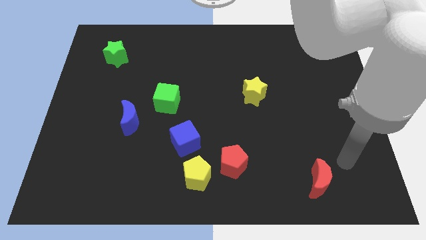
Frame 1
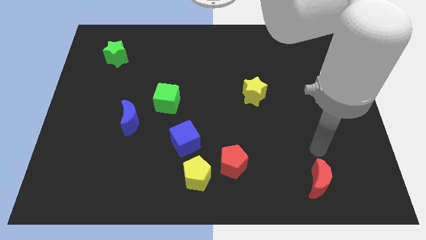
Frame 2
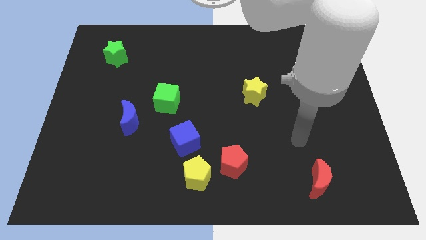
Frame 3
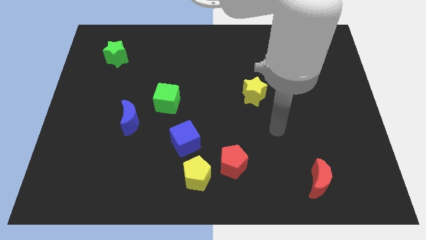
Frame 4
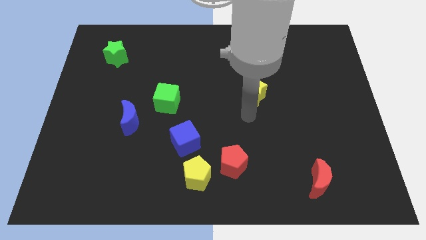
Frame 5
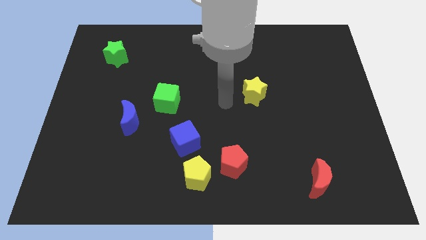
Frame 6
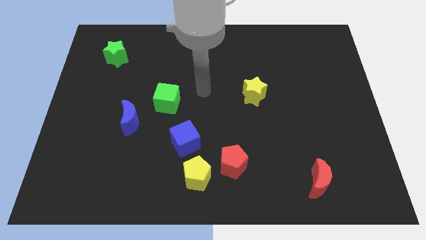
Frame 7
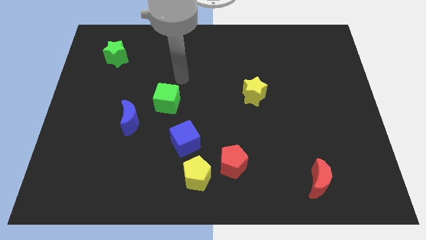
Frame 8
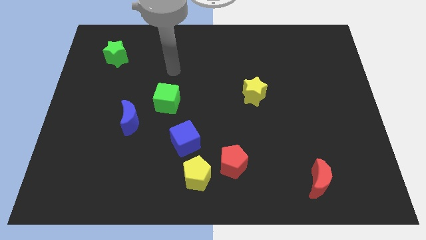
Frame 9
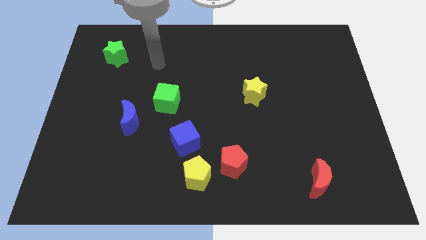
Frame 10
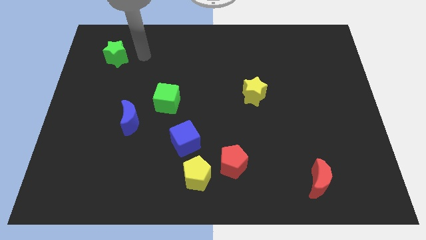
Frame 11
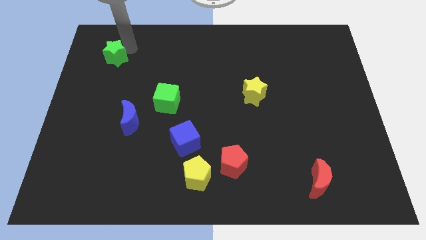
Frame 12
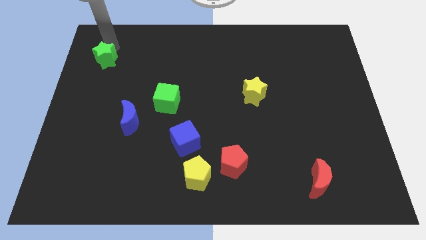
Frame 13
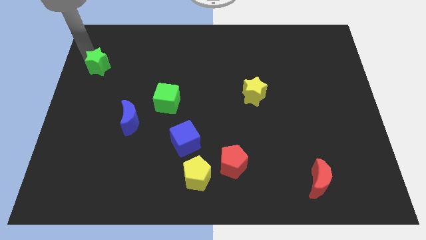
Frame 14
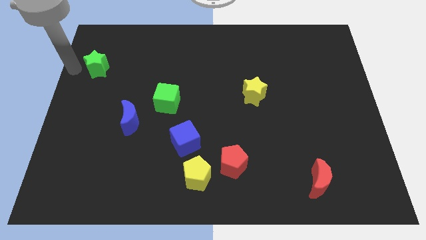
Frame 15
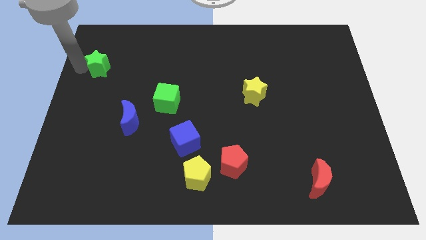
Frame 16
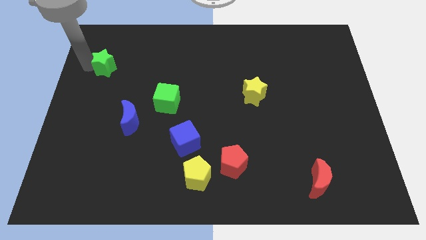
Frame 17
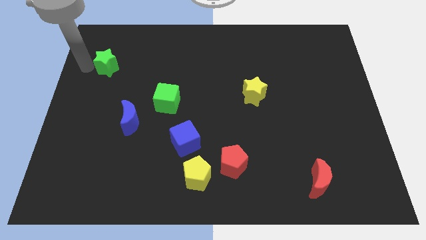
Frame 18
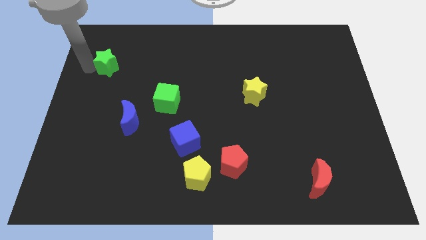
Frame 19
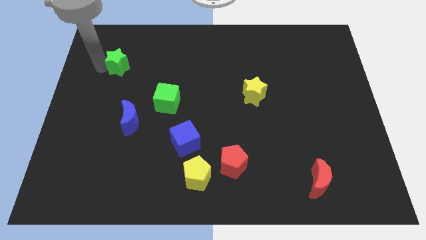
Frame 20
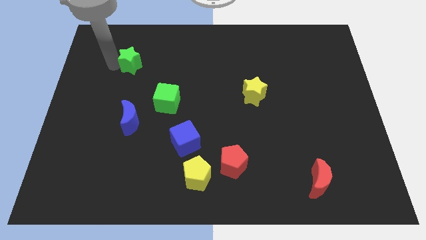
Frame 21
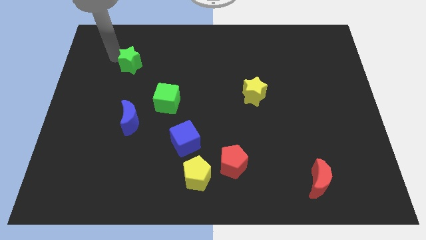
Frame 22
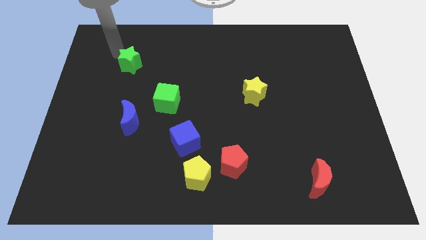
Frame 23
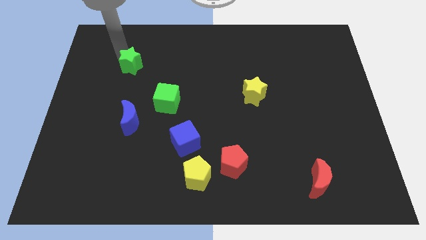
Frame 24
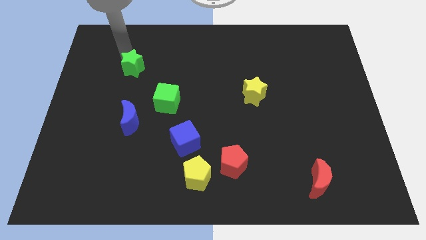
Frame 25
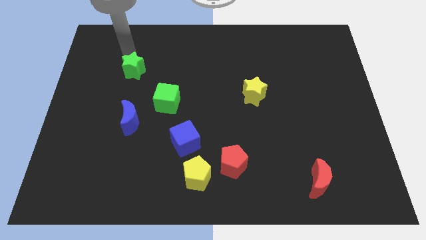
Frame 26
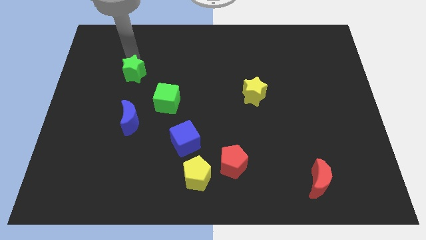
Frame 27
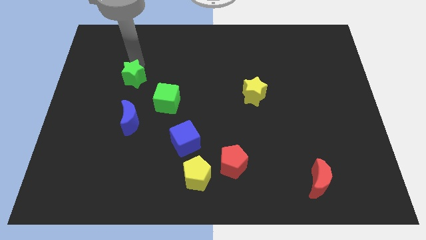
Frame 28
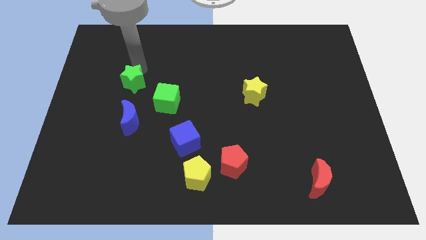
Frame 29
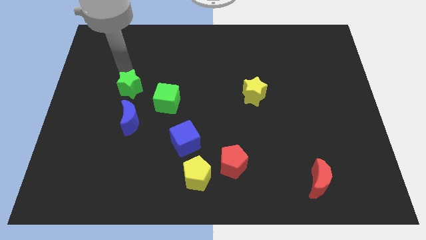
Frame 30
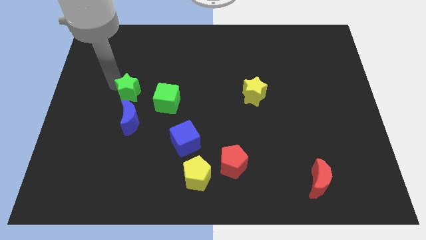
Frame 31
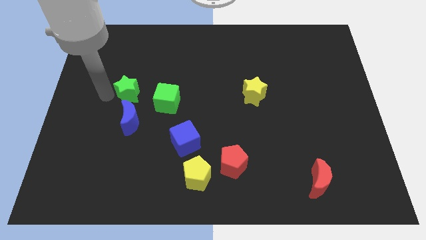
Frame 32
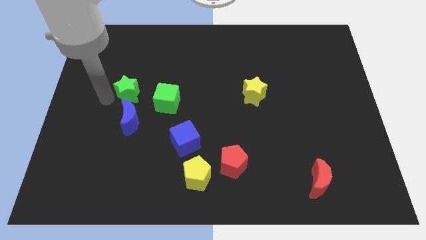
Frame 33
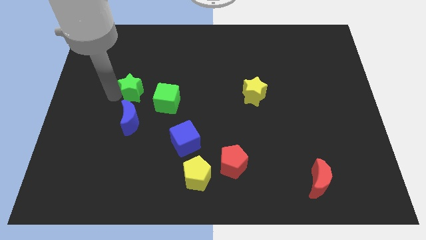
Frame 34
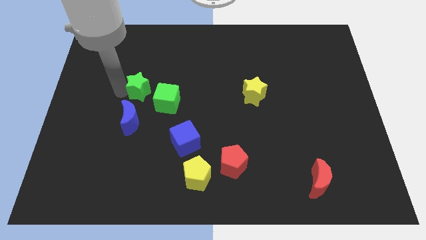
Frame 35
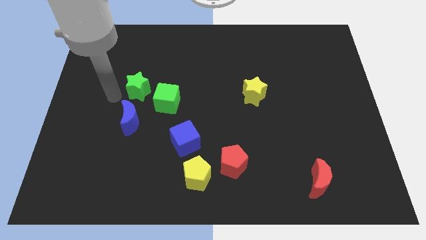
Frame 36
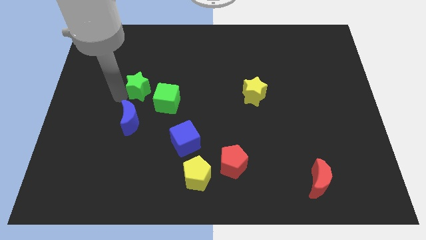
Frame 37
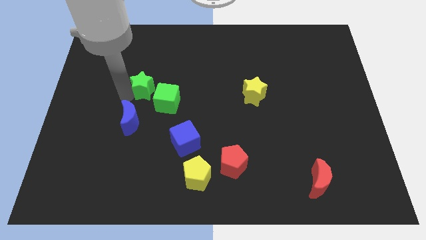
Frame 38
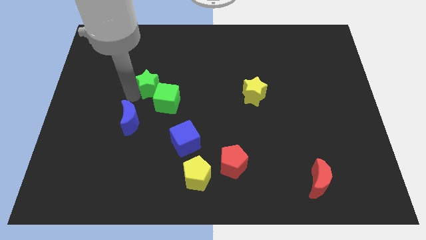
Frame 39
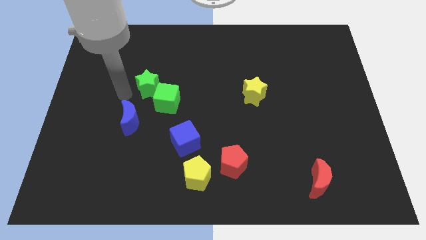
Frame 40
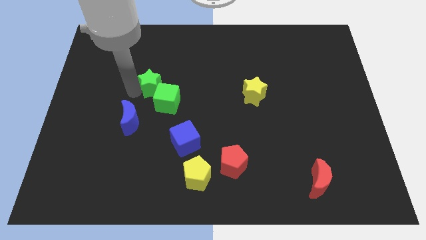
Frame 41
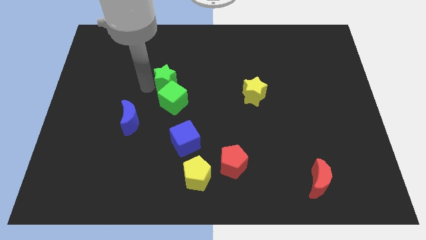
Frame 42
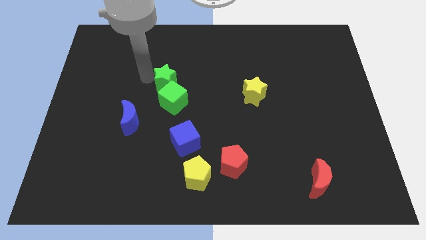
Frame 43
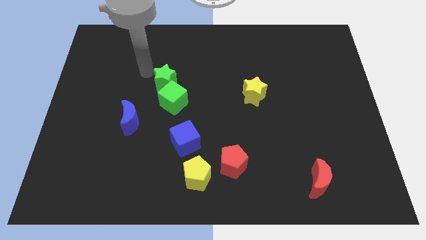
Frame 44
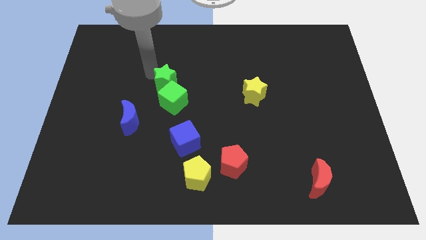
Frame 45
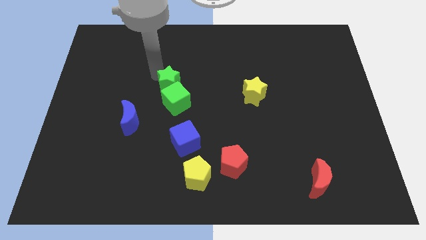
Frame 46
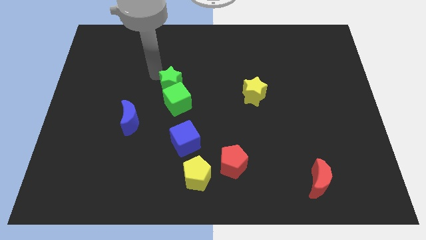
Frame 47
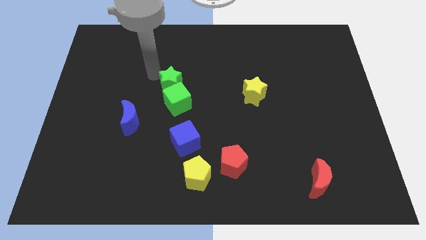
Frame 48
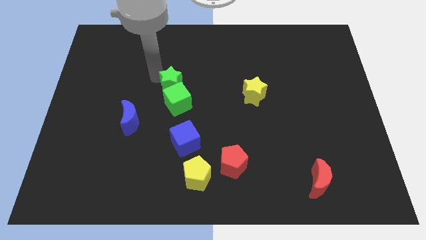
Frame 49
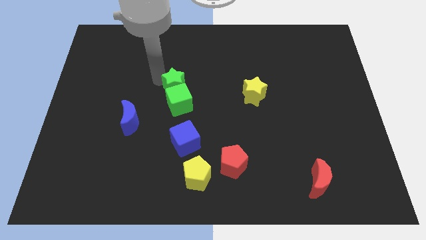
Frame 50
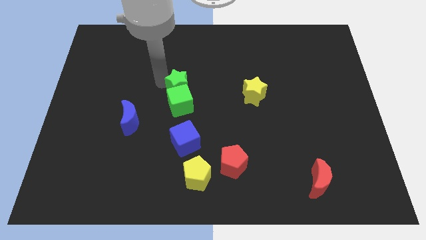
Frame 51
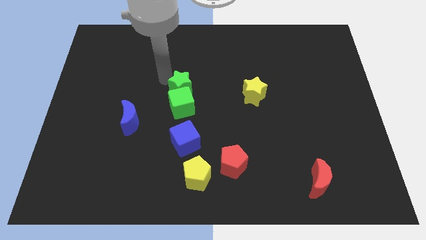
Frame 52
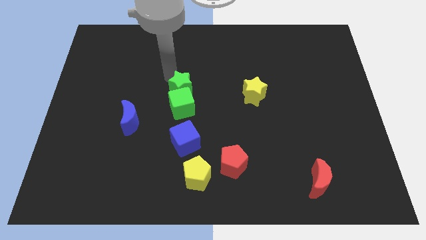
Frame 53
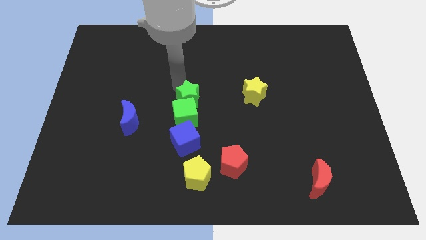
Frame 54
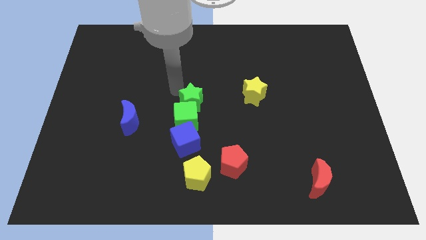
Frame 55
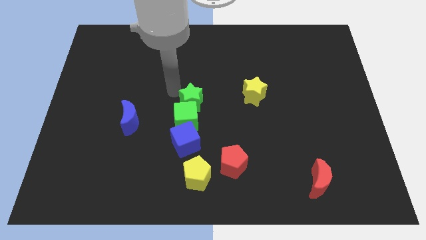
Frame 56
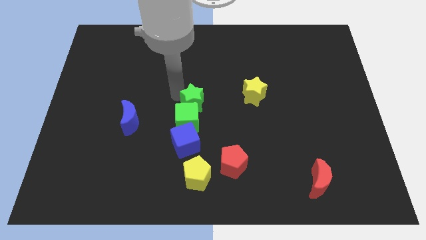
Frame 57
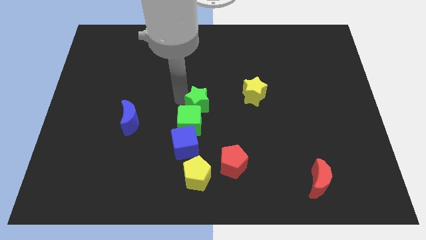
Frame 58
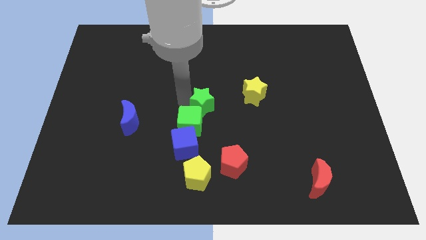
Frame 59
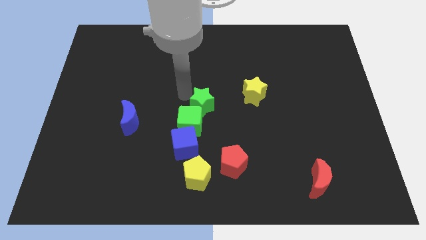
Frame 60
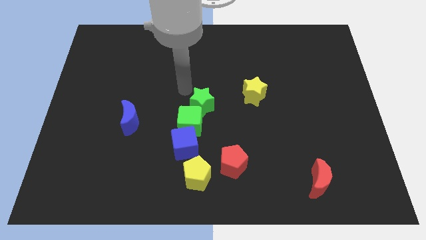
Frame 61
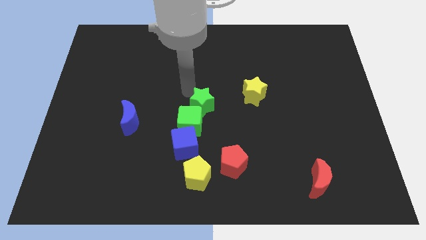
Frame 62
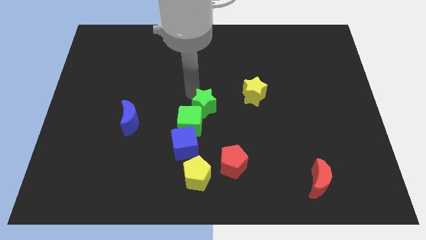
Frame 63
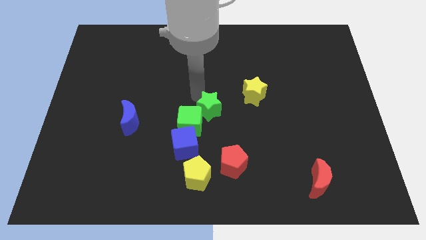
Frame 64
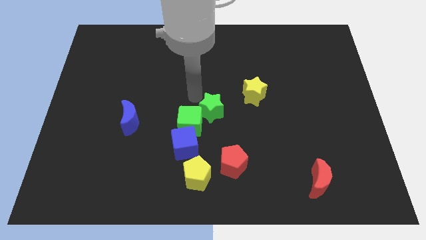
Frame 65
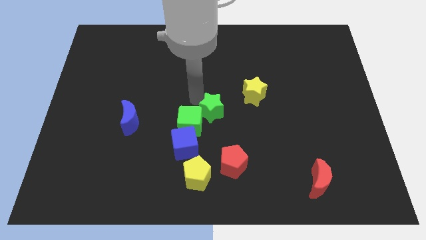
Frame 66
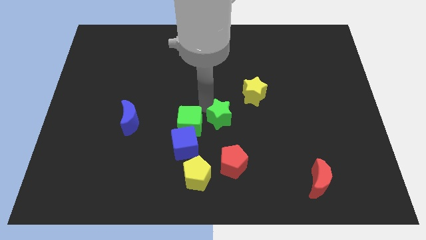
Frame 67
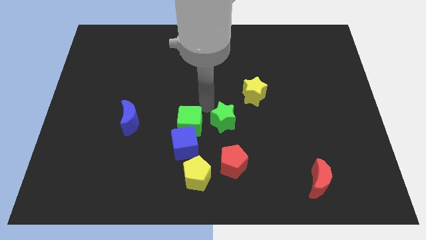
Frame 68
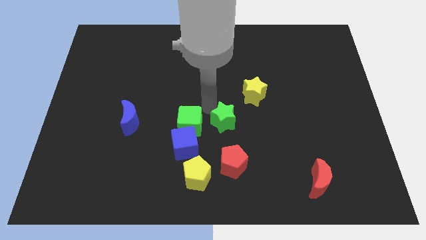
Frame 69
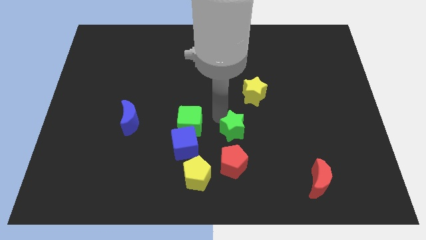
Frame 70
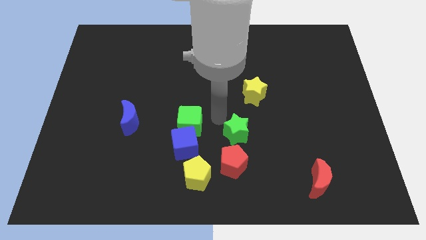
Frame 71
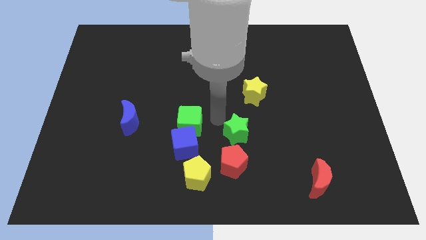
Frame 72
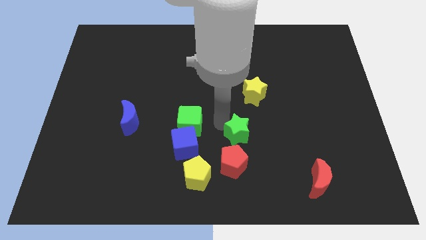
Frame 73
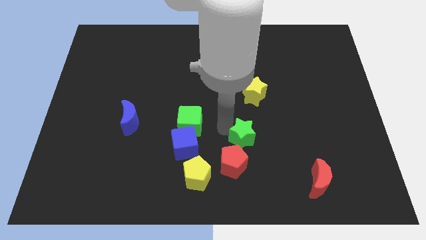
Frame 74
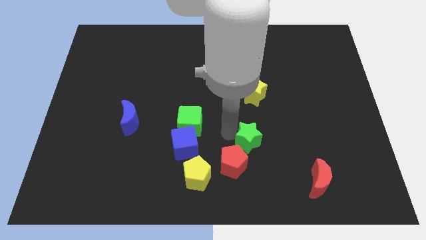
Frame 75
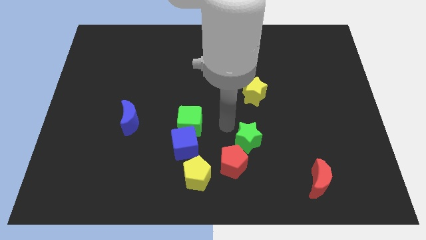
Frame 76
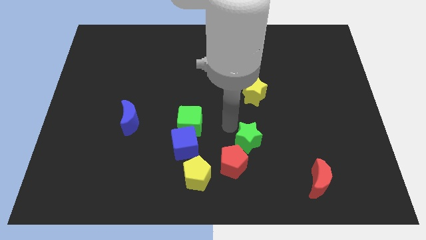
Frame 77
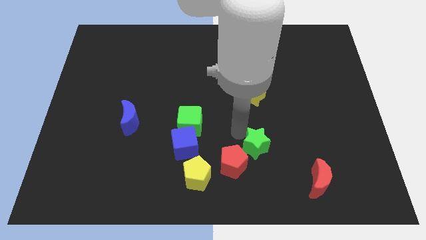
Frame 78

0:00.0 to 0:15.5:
slide the green star right of the red pentagon
